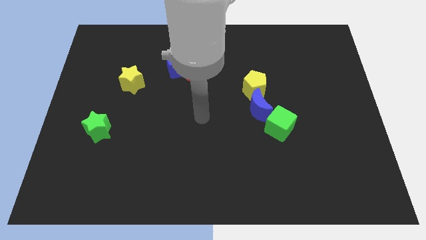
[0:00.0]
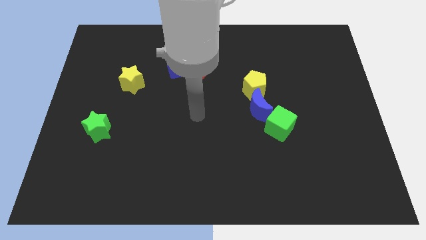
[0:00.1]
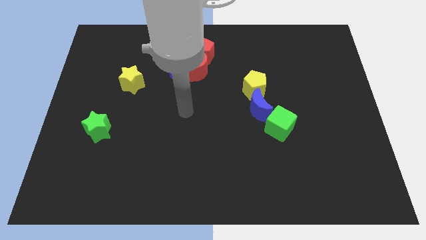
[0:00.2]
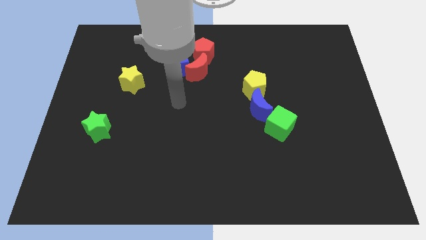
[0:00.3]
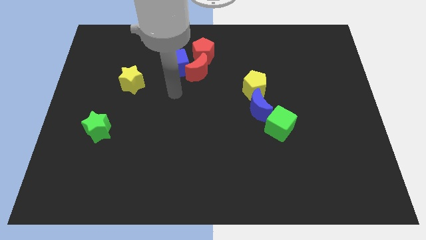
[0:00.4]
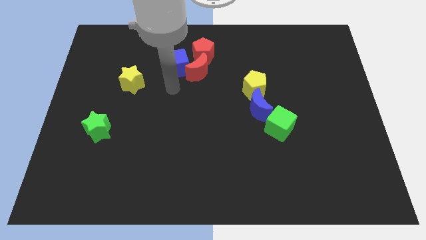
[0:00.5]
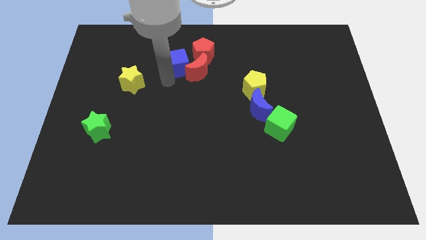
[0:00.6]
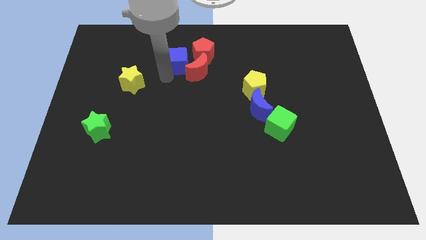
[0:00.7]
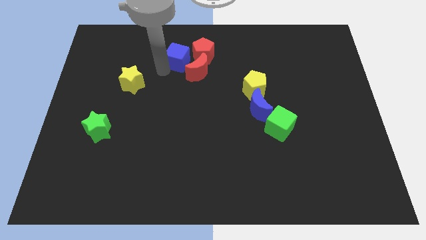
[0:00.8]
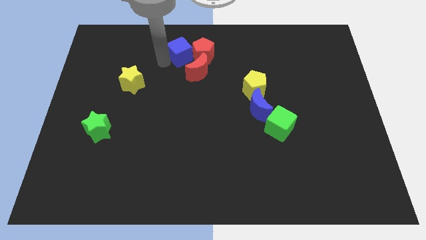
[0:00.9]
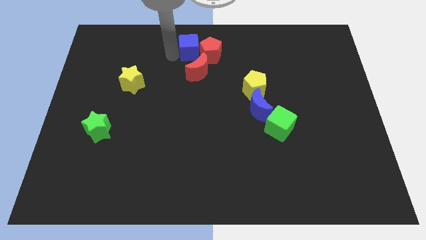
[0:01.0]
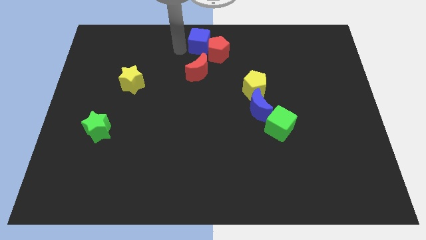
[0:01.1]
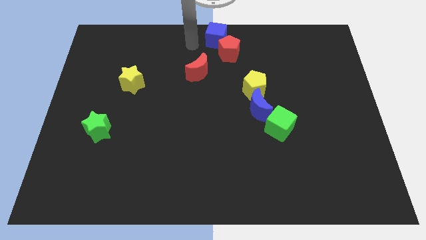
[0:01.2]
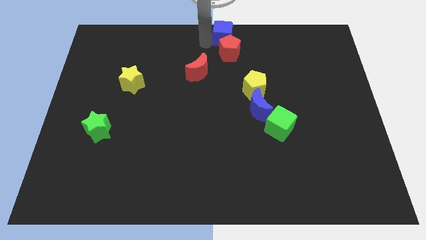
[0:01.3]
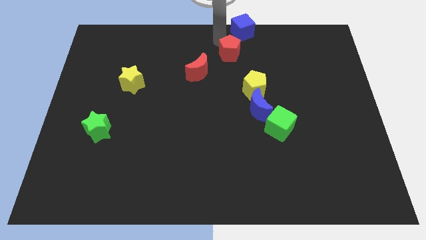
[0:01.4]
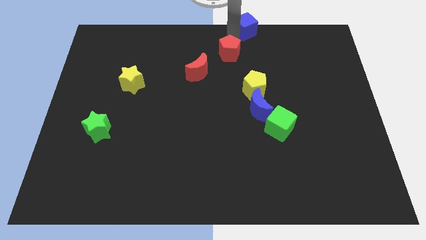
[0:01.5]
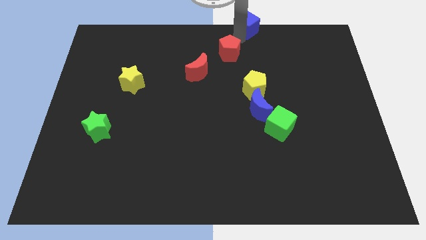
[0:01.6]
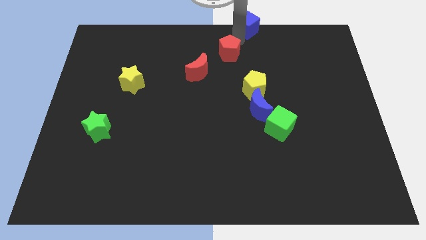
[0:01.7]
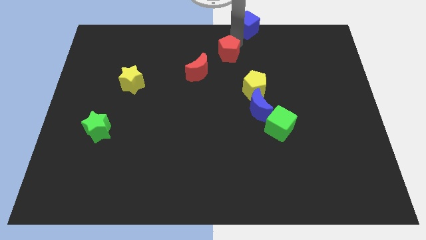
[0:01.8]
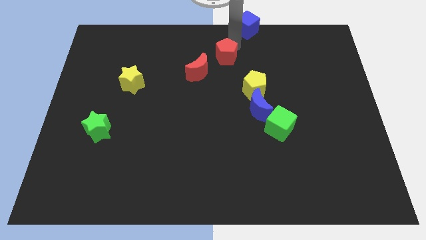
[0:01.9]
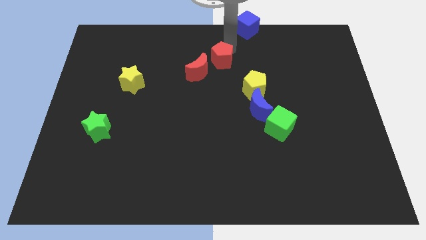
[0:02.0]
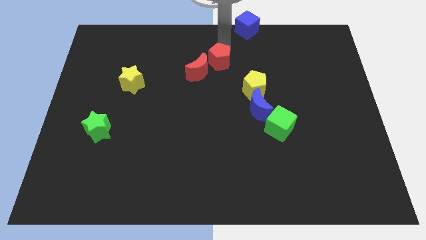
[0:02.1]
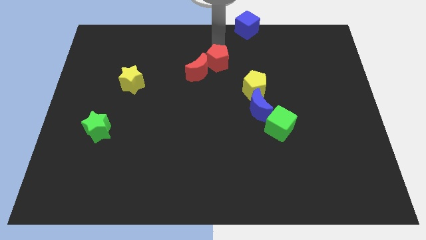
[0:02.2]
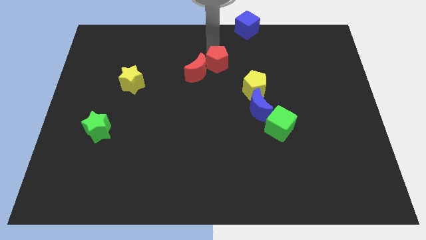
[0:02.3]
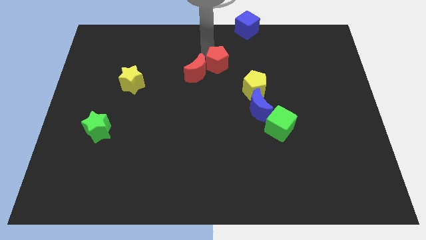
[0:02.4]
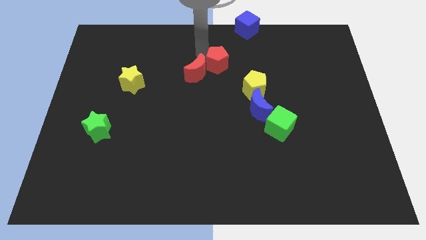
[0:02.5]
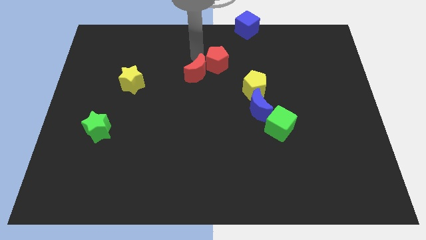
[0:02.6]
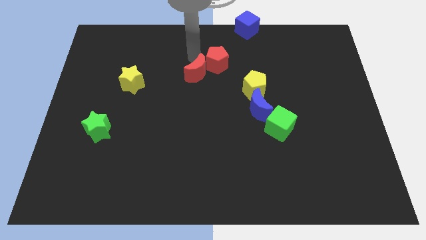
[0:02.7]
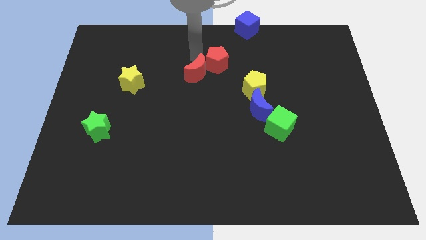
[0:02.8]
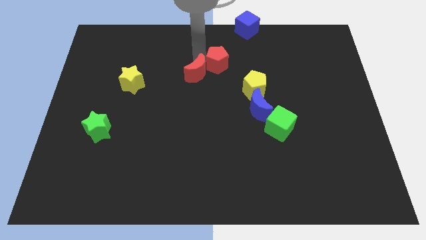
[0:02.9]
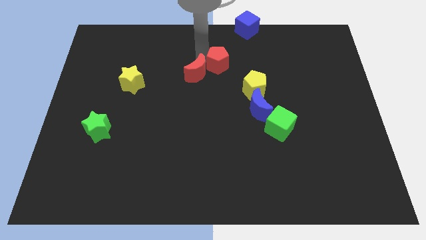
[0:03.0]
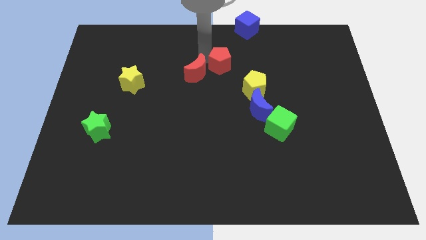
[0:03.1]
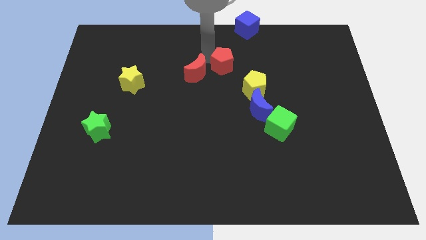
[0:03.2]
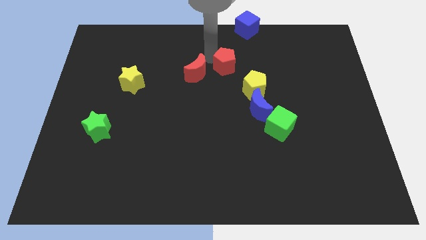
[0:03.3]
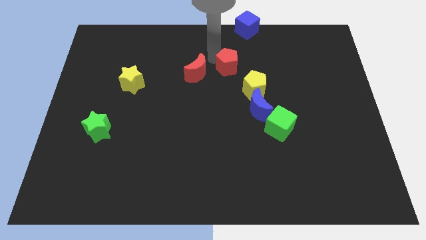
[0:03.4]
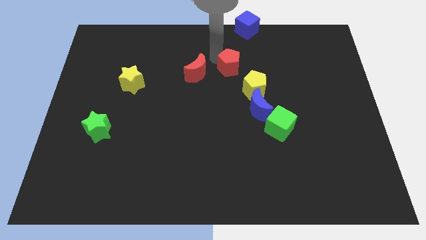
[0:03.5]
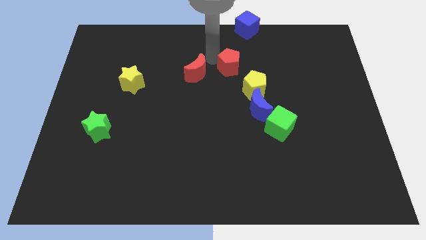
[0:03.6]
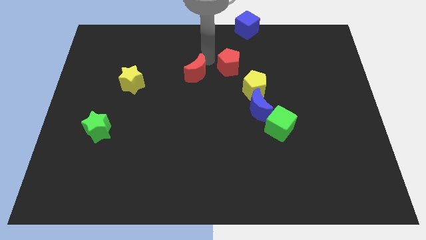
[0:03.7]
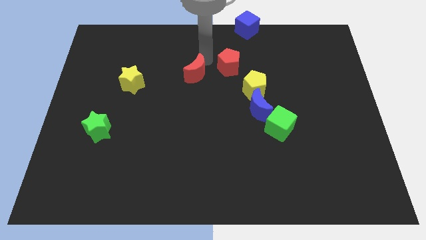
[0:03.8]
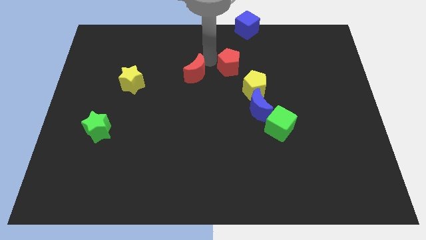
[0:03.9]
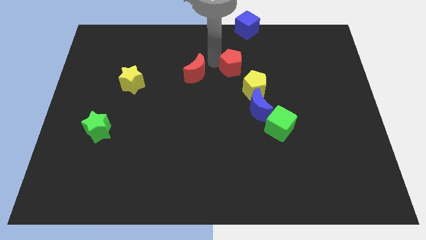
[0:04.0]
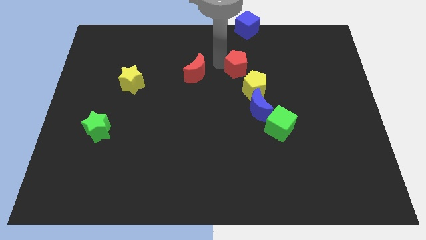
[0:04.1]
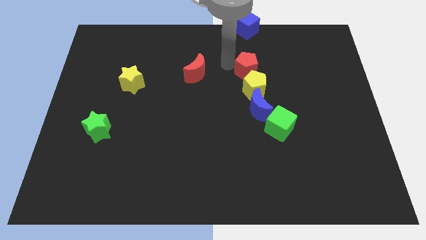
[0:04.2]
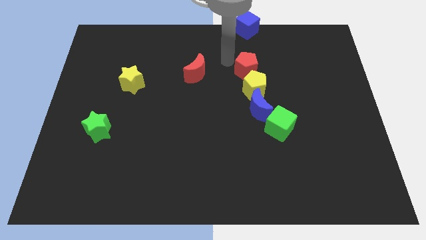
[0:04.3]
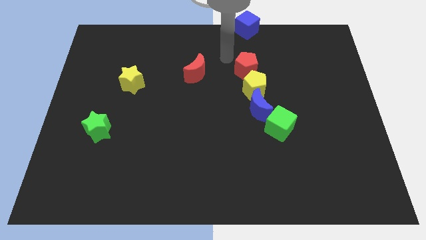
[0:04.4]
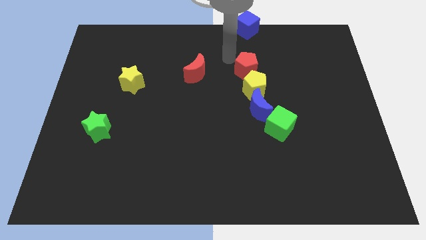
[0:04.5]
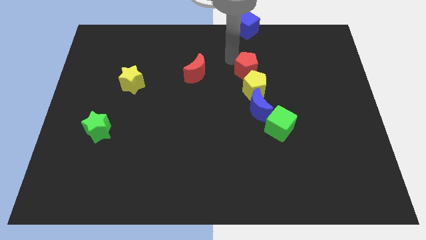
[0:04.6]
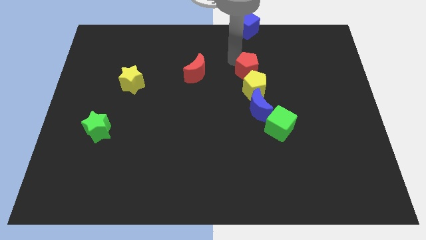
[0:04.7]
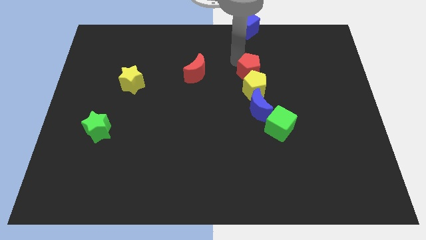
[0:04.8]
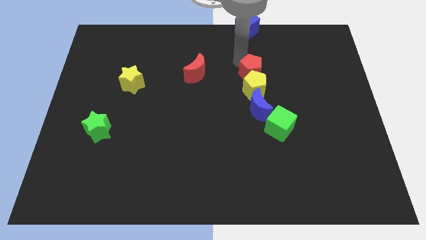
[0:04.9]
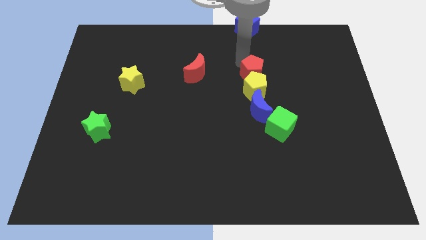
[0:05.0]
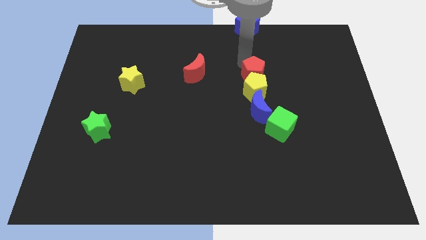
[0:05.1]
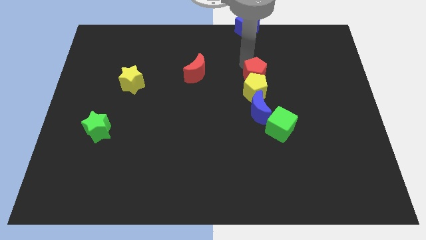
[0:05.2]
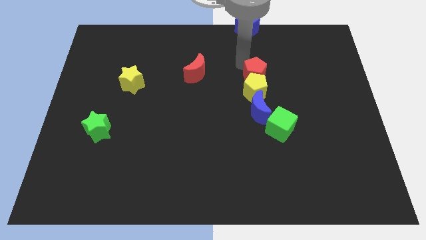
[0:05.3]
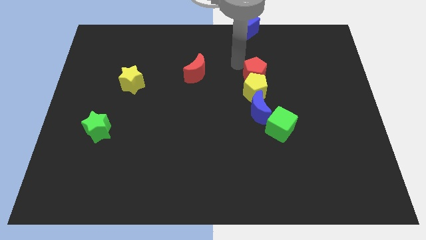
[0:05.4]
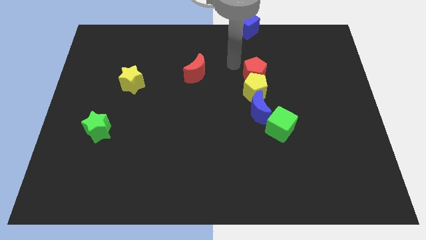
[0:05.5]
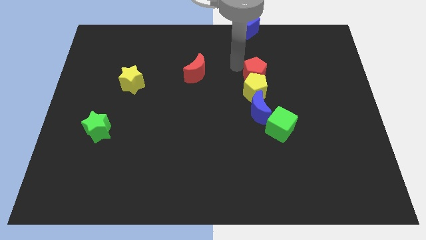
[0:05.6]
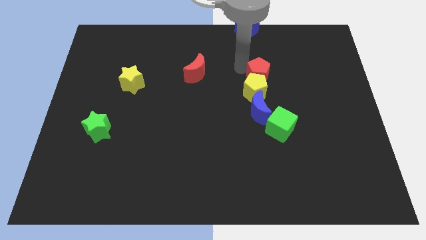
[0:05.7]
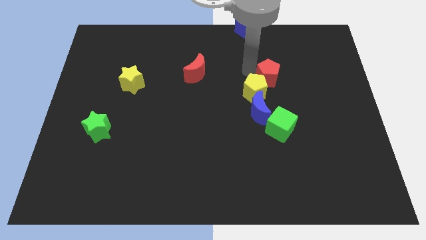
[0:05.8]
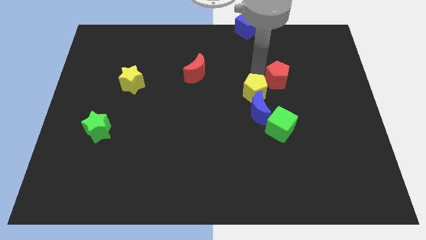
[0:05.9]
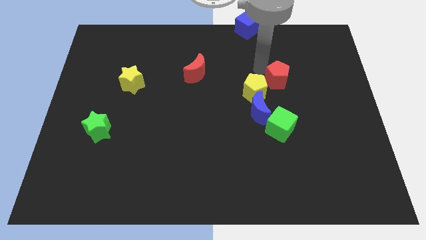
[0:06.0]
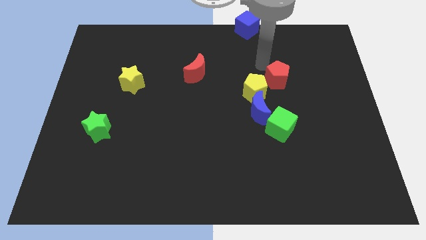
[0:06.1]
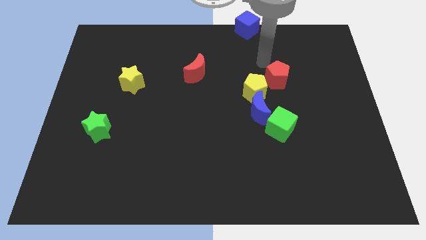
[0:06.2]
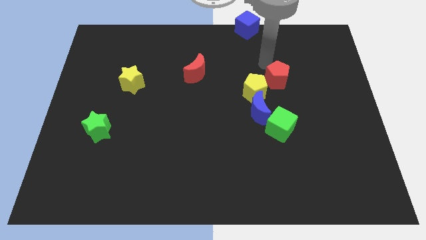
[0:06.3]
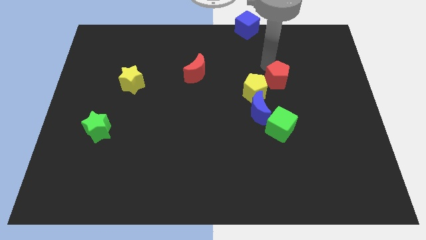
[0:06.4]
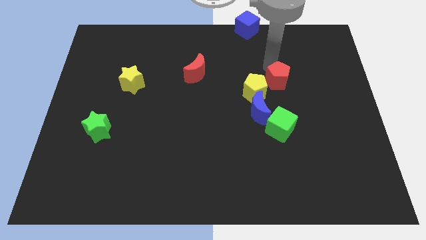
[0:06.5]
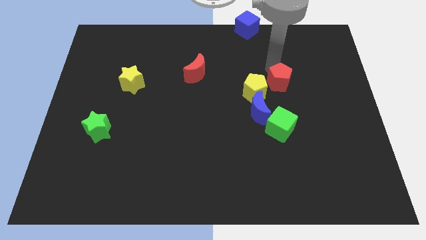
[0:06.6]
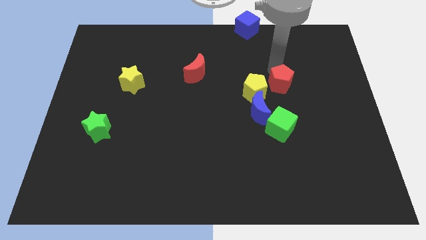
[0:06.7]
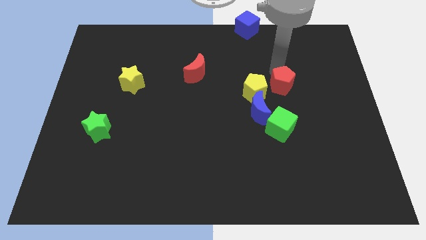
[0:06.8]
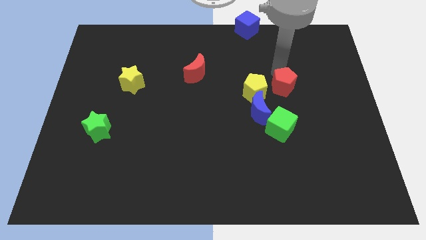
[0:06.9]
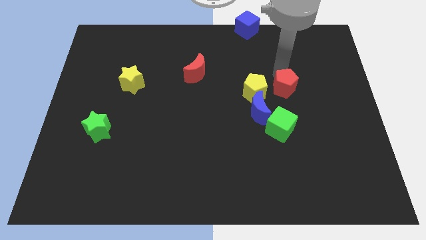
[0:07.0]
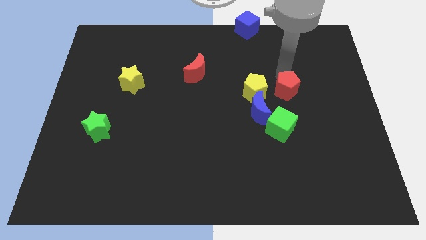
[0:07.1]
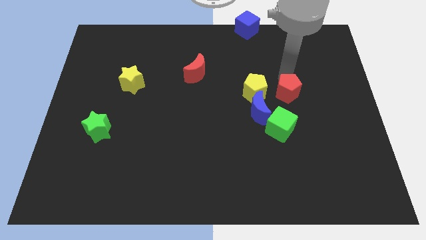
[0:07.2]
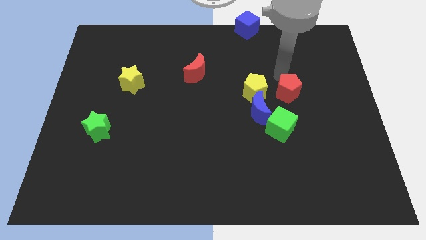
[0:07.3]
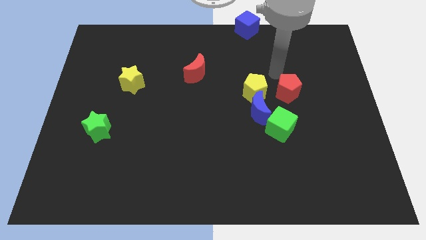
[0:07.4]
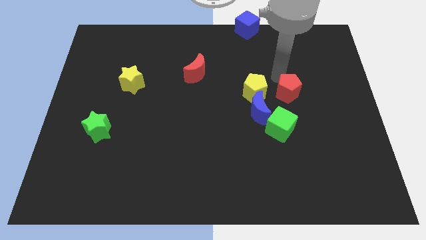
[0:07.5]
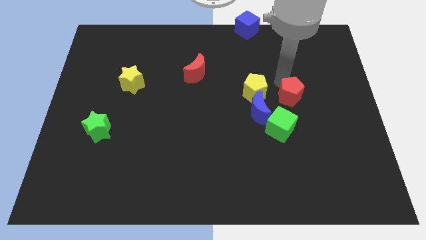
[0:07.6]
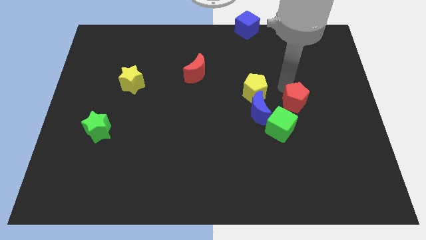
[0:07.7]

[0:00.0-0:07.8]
put the red pentagon just right of the blue moon
